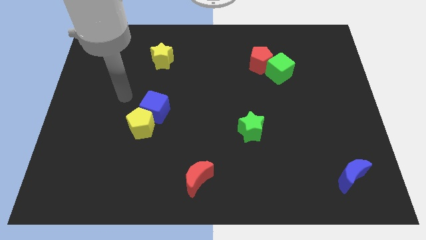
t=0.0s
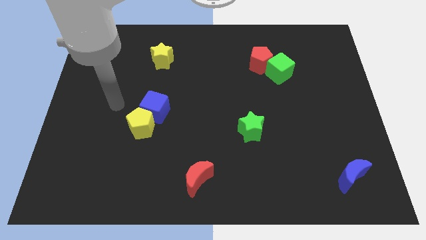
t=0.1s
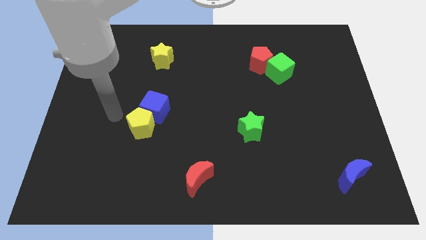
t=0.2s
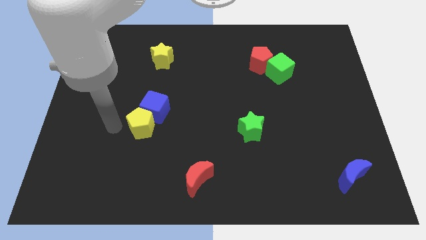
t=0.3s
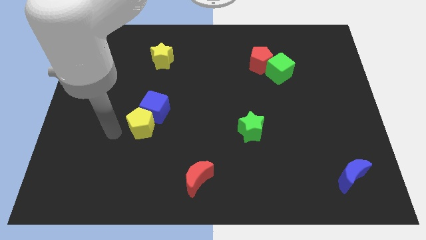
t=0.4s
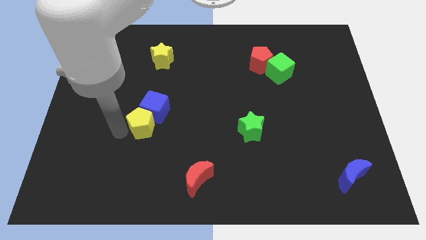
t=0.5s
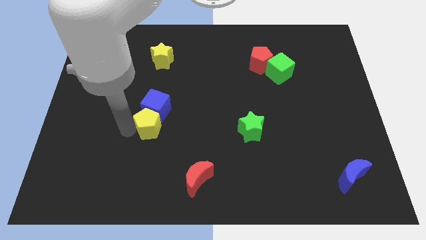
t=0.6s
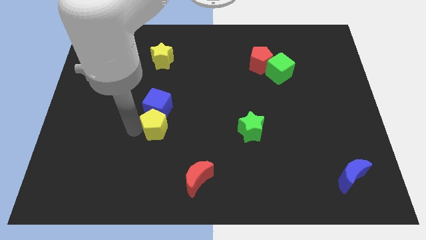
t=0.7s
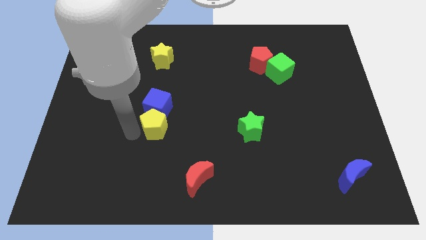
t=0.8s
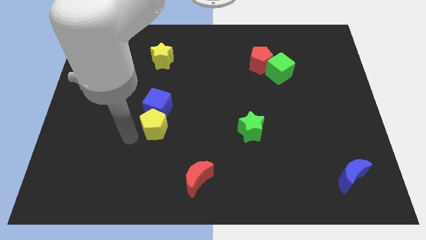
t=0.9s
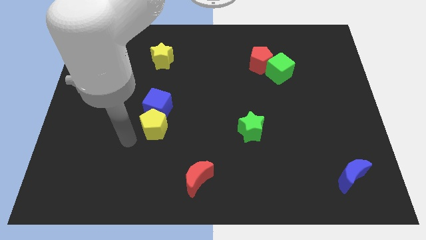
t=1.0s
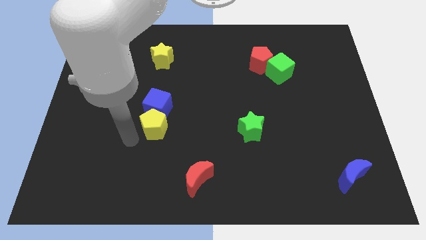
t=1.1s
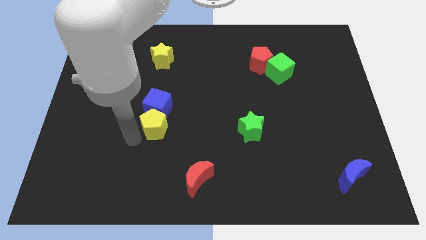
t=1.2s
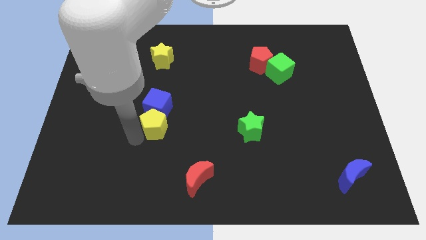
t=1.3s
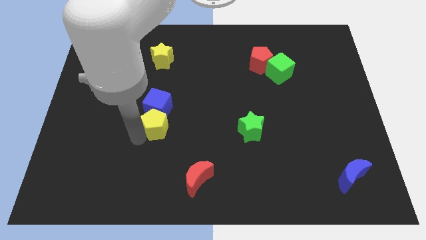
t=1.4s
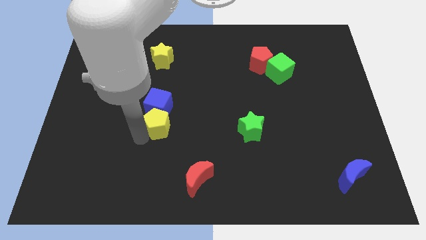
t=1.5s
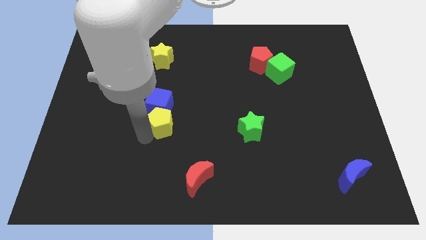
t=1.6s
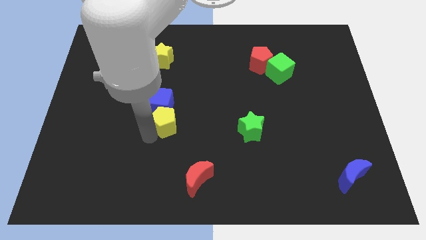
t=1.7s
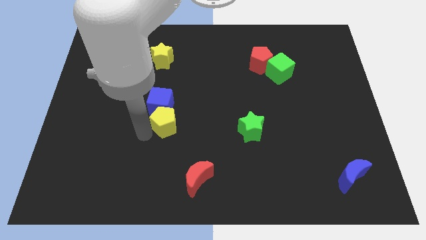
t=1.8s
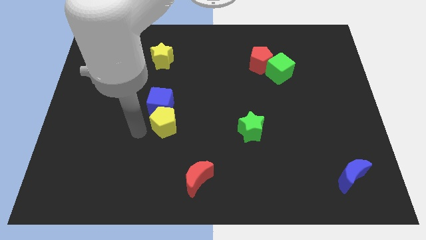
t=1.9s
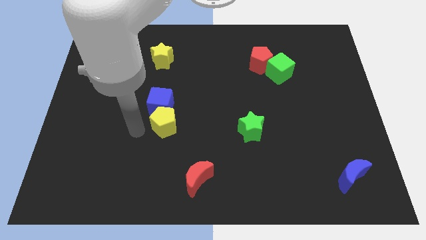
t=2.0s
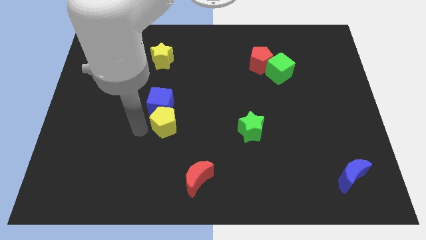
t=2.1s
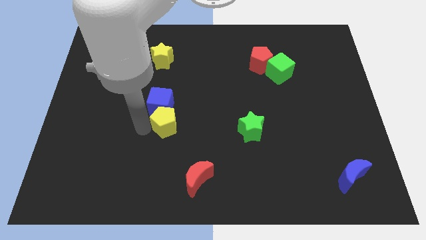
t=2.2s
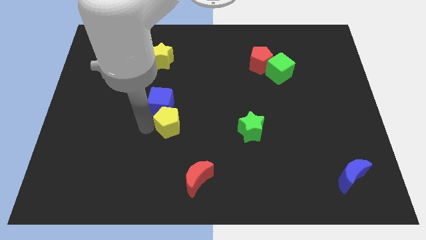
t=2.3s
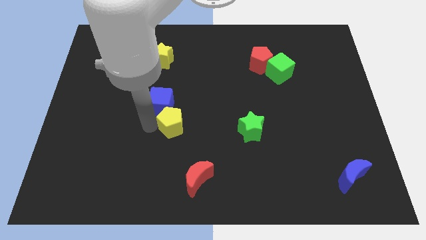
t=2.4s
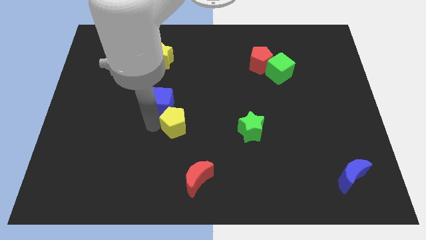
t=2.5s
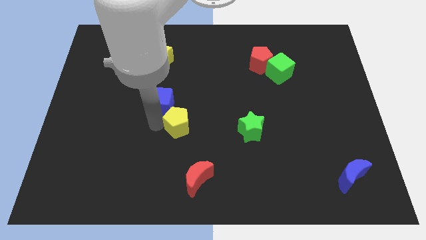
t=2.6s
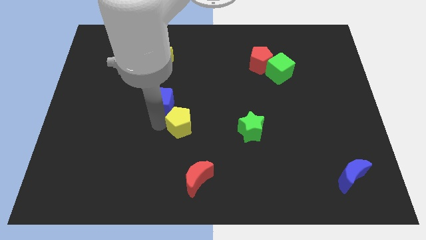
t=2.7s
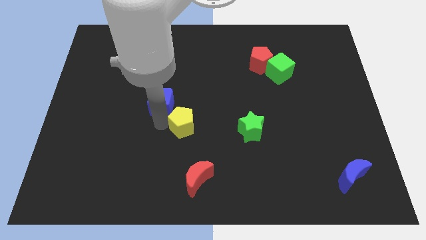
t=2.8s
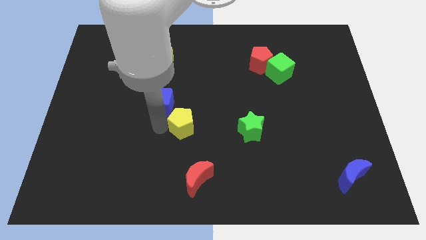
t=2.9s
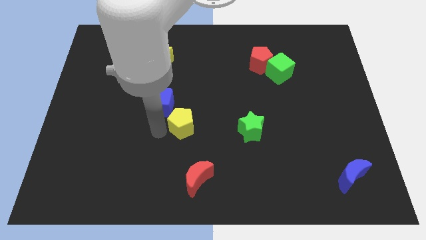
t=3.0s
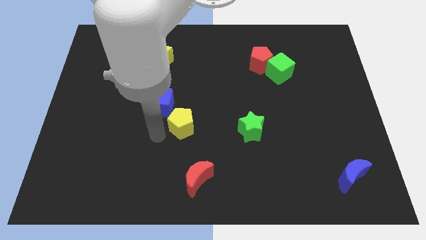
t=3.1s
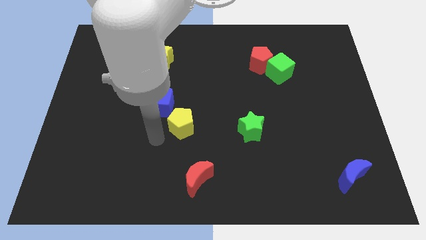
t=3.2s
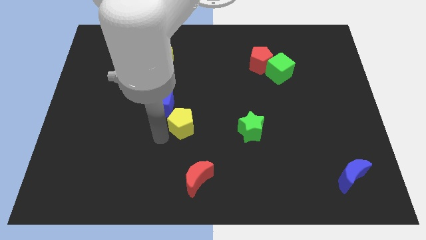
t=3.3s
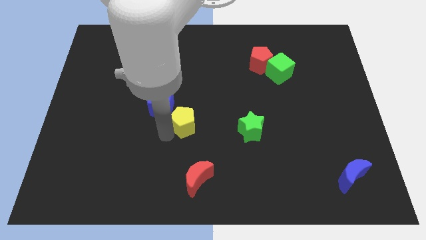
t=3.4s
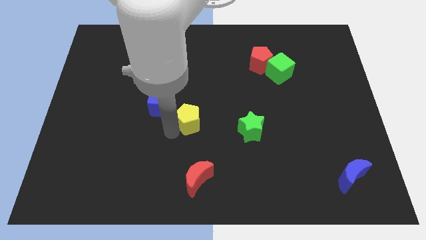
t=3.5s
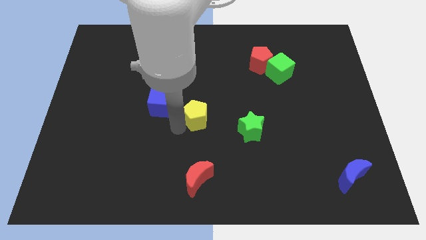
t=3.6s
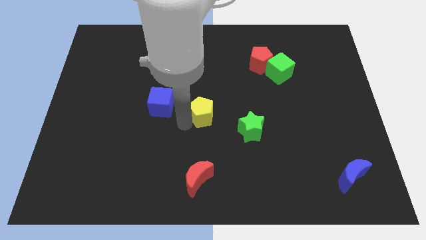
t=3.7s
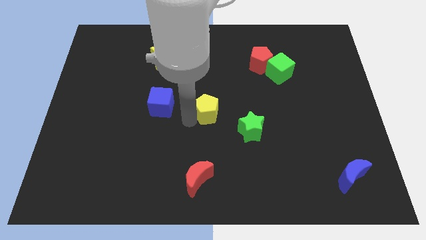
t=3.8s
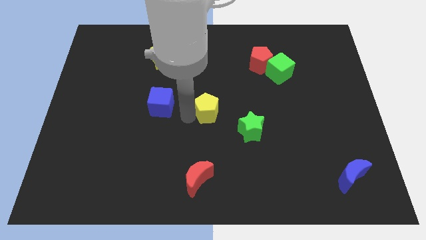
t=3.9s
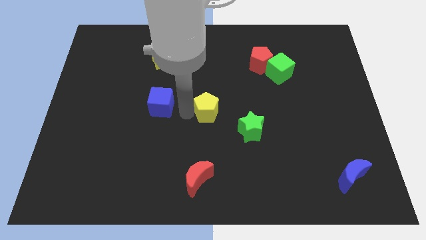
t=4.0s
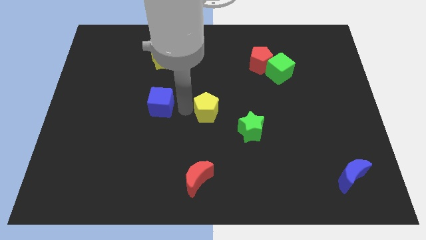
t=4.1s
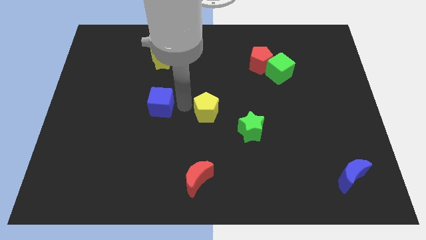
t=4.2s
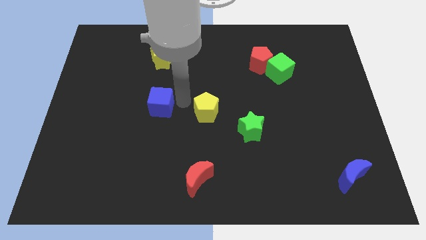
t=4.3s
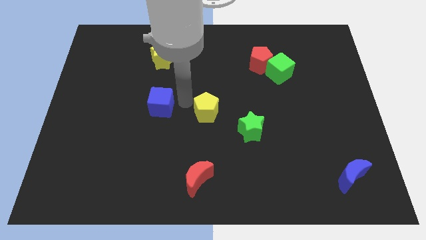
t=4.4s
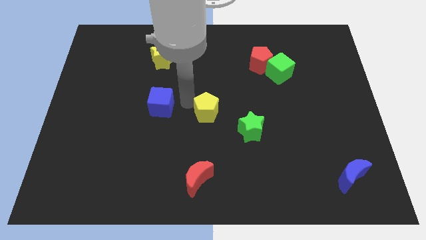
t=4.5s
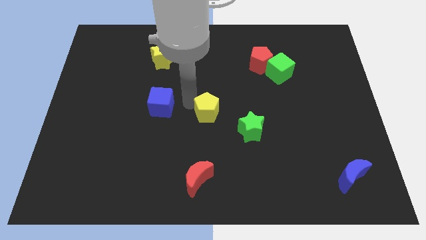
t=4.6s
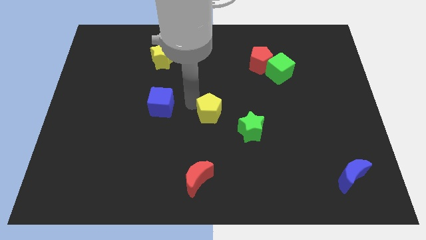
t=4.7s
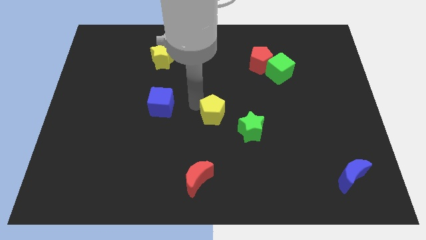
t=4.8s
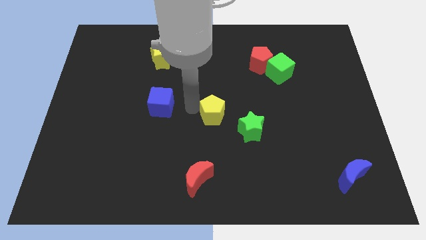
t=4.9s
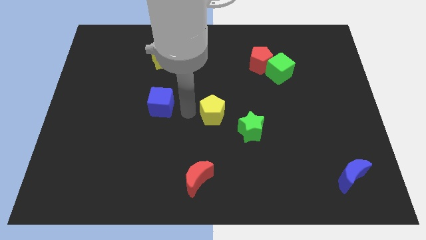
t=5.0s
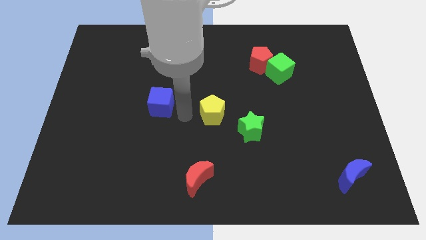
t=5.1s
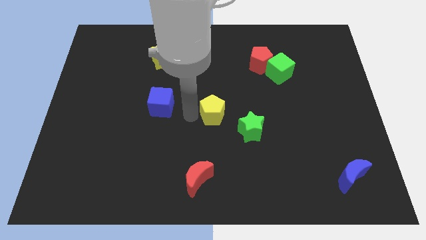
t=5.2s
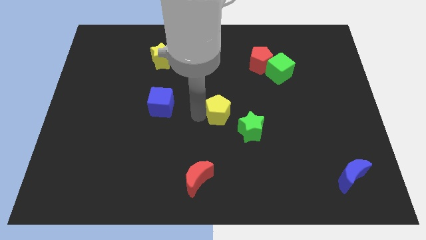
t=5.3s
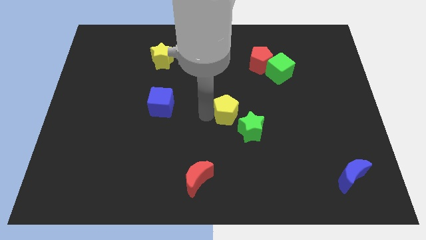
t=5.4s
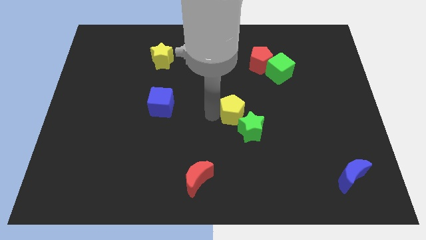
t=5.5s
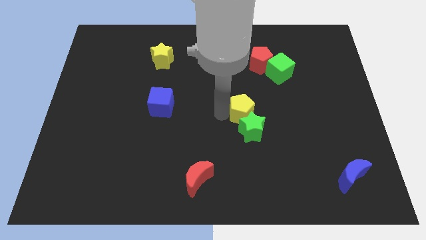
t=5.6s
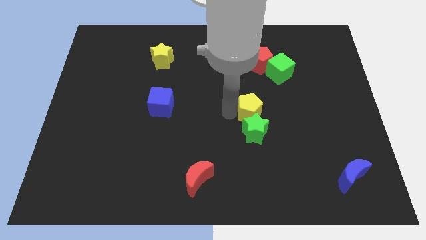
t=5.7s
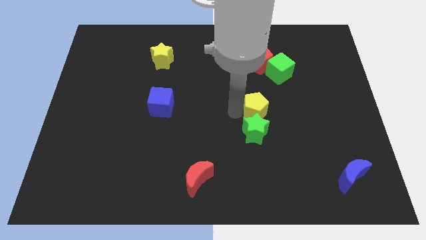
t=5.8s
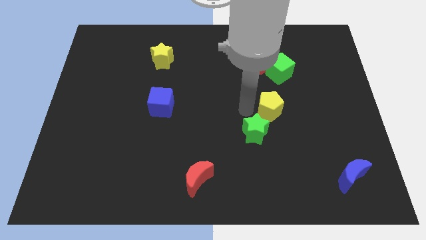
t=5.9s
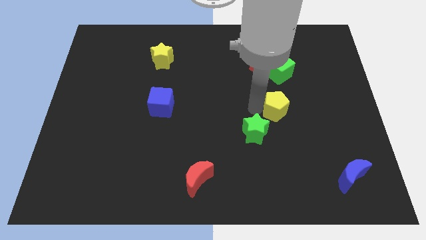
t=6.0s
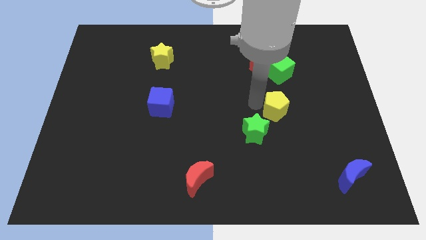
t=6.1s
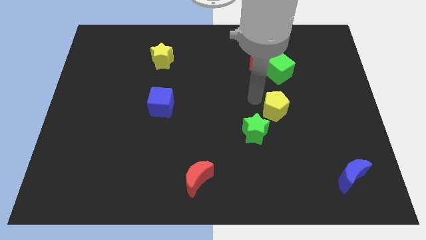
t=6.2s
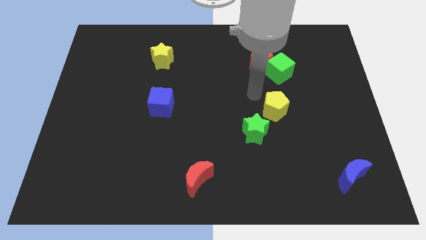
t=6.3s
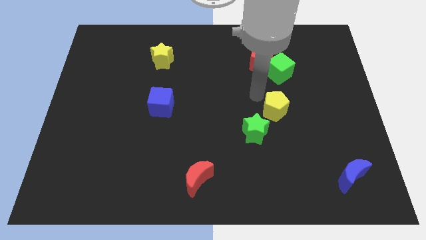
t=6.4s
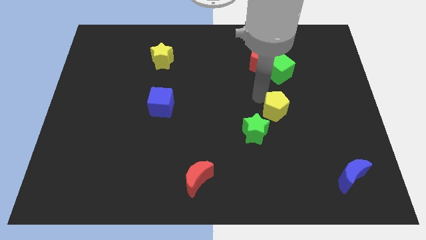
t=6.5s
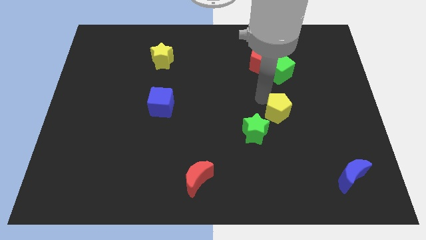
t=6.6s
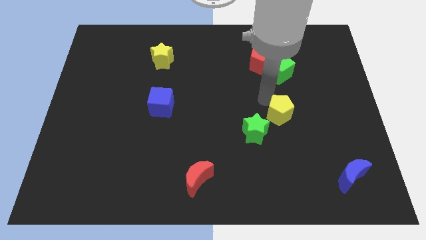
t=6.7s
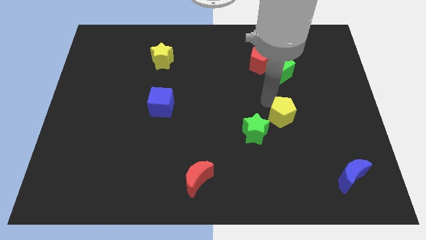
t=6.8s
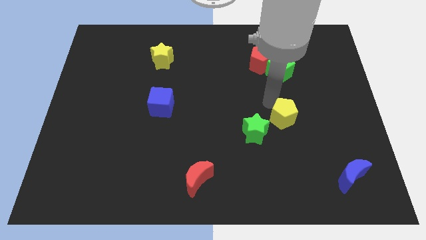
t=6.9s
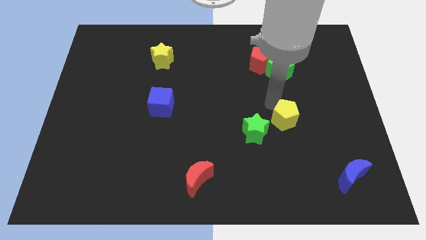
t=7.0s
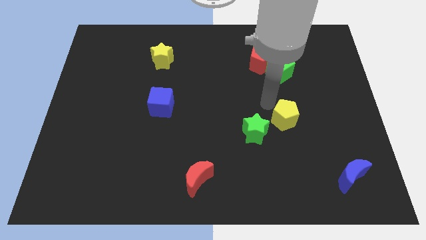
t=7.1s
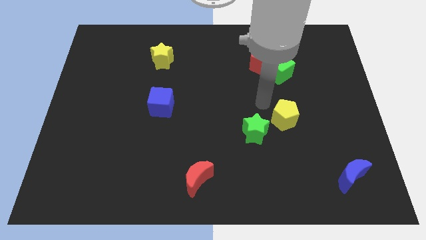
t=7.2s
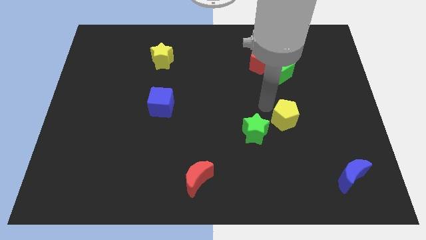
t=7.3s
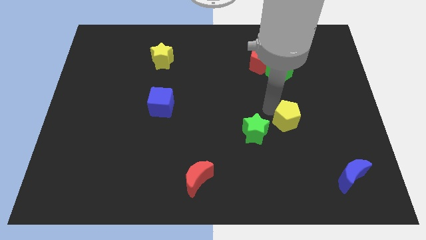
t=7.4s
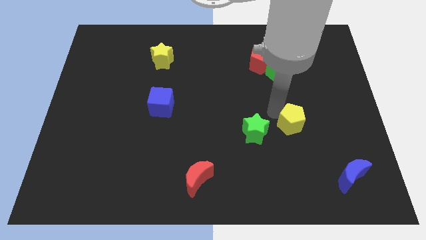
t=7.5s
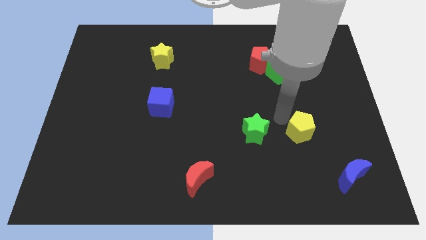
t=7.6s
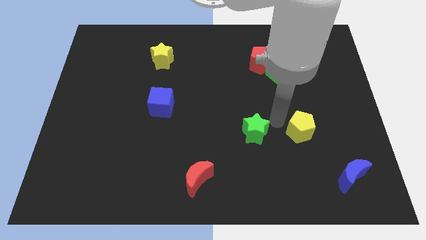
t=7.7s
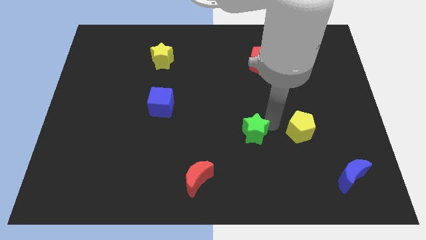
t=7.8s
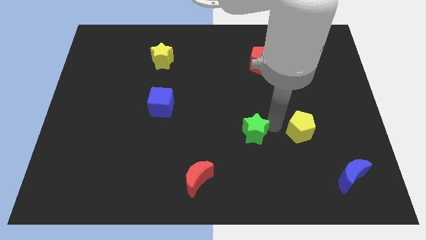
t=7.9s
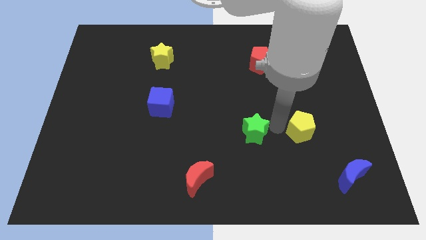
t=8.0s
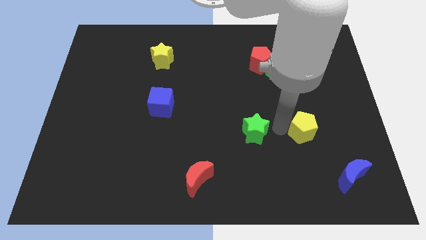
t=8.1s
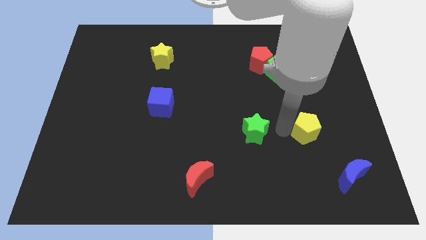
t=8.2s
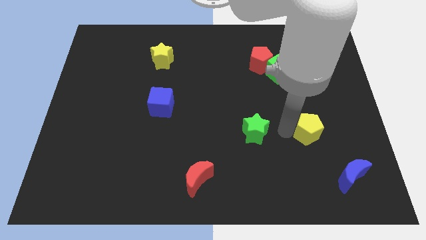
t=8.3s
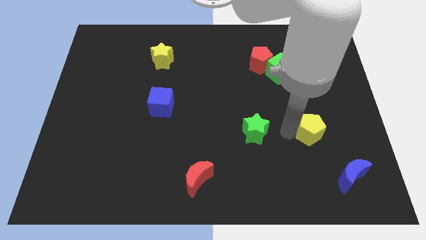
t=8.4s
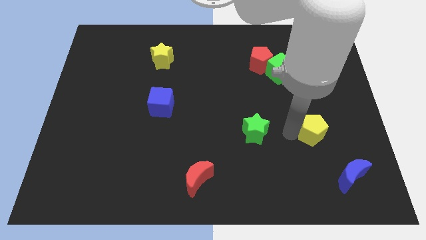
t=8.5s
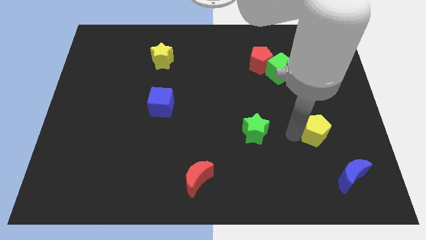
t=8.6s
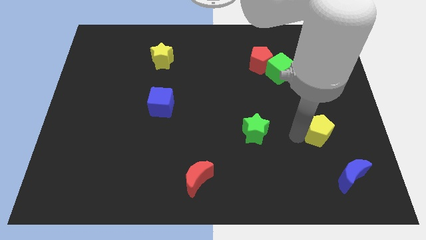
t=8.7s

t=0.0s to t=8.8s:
put the yellow pentagon above the blue moon
